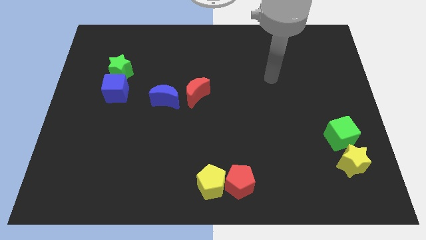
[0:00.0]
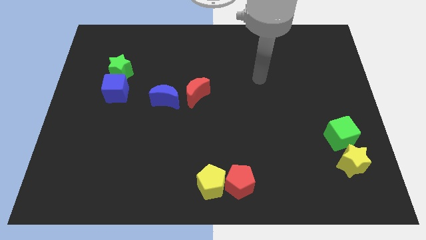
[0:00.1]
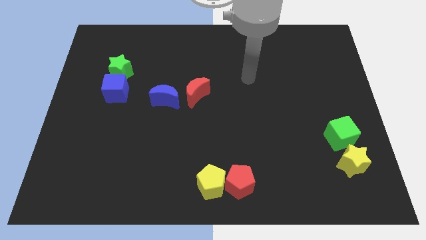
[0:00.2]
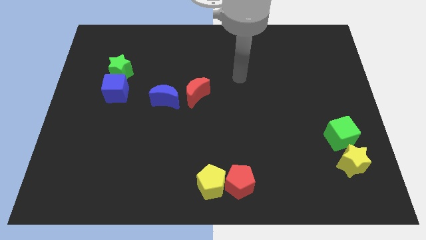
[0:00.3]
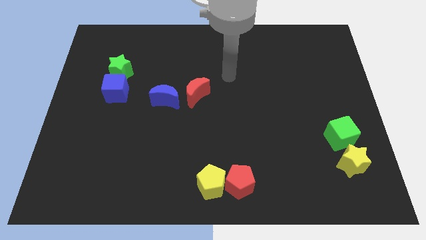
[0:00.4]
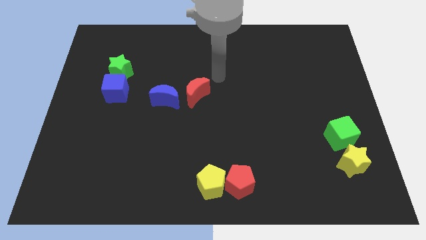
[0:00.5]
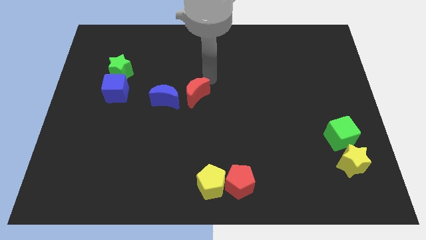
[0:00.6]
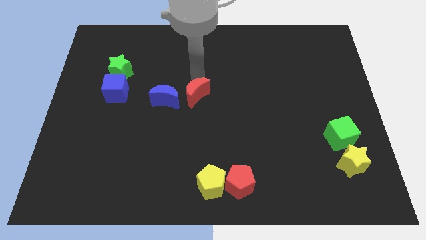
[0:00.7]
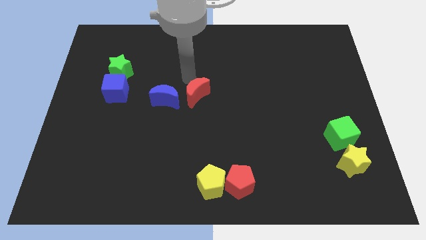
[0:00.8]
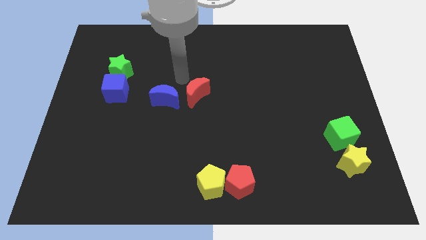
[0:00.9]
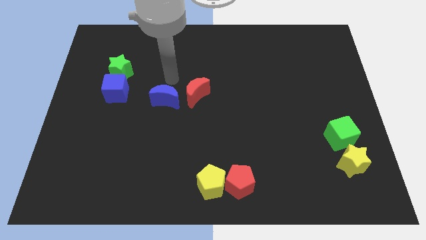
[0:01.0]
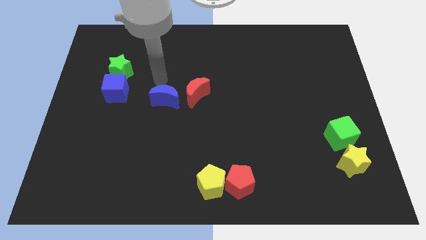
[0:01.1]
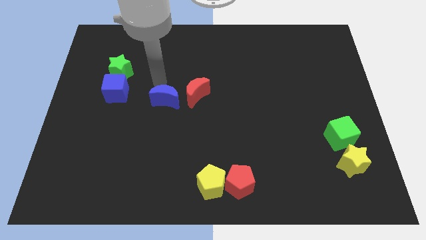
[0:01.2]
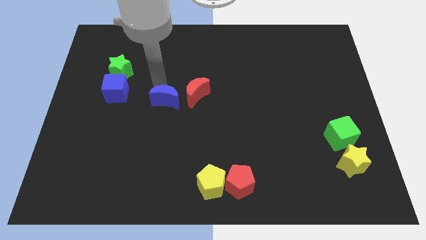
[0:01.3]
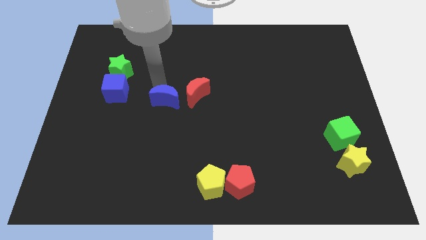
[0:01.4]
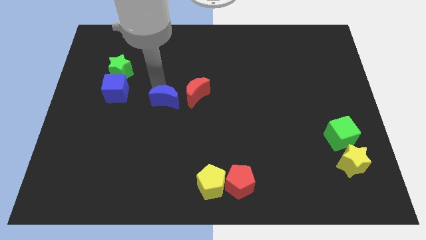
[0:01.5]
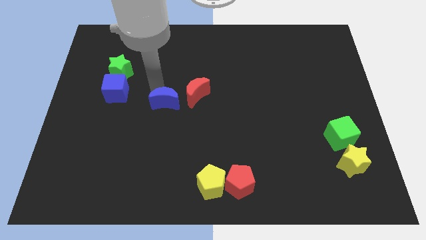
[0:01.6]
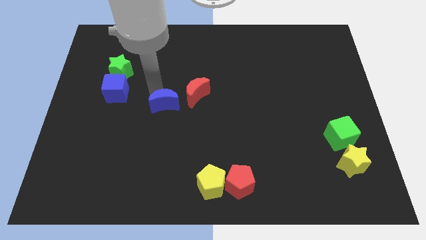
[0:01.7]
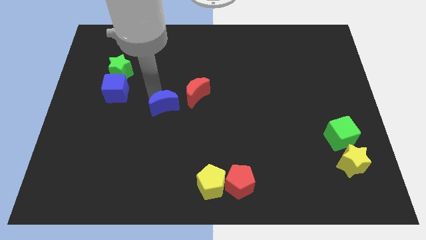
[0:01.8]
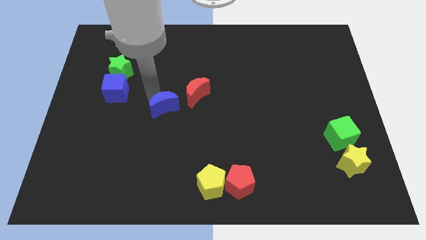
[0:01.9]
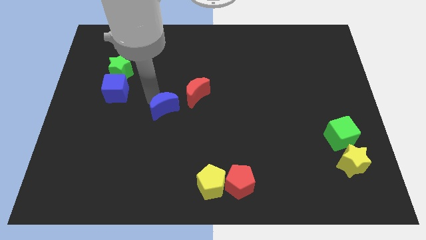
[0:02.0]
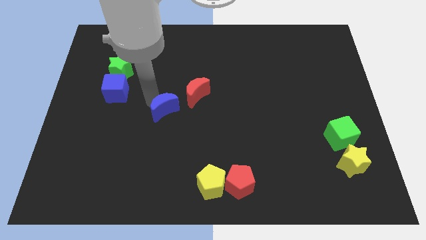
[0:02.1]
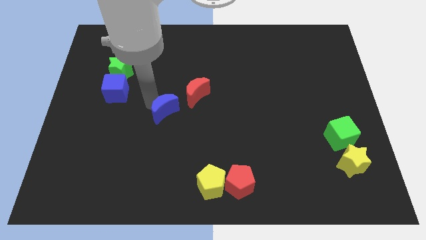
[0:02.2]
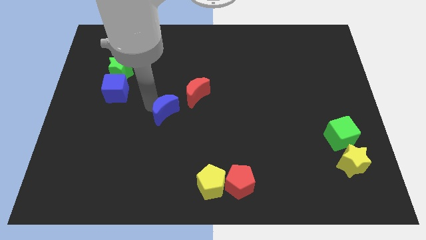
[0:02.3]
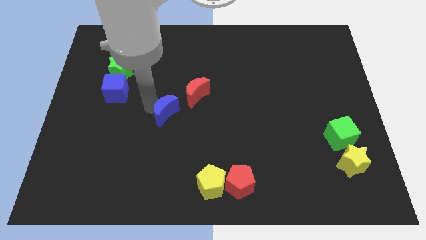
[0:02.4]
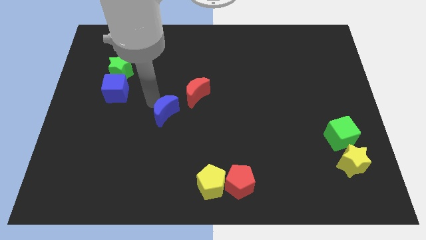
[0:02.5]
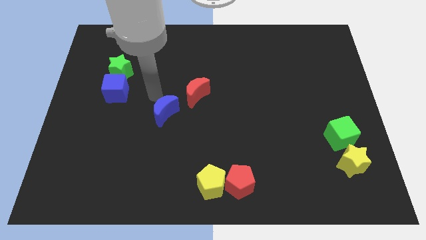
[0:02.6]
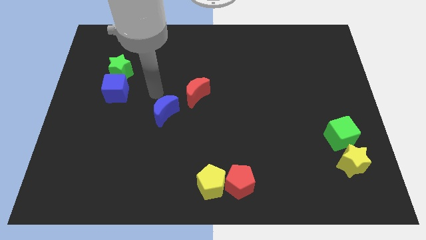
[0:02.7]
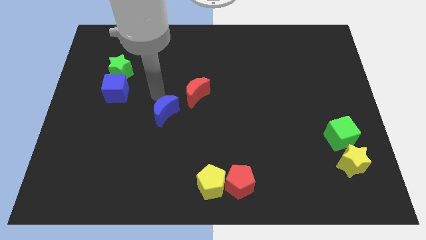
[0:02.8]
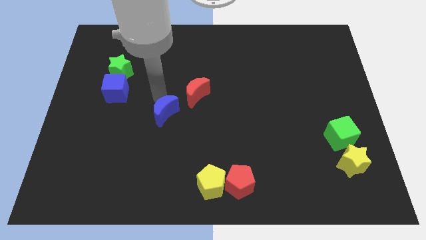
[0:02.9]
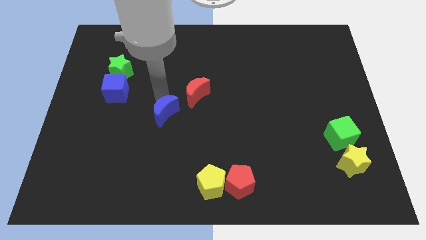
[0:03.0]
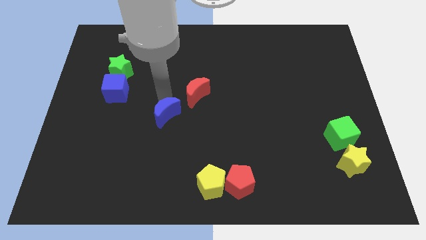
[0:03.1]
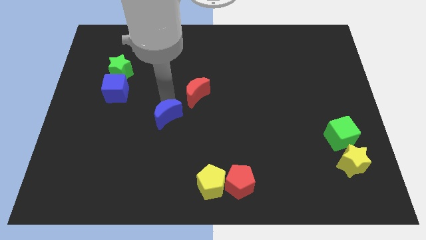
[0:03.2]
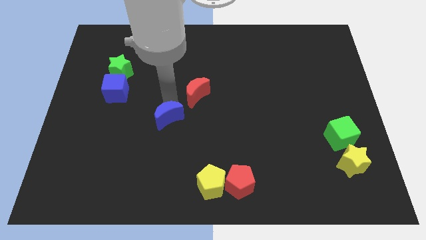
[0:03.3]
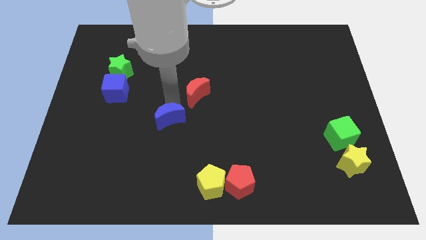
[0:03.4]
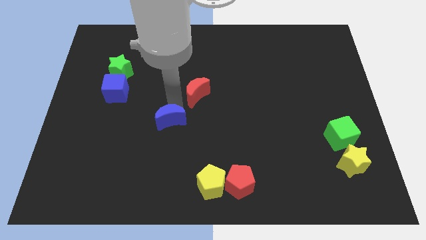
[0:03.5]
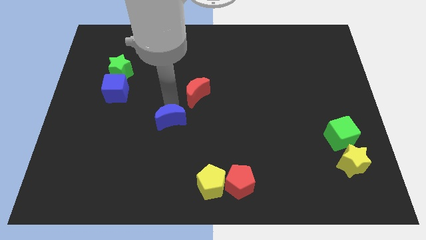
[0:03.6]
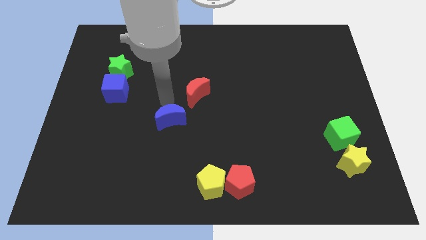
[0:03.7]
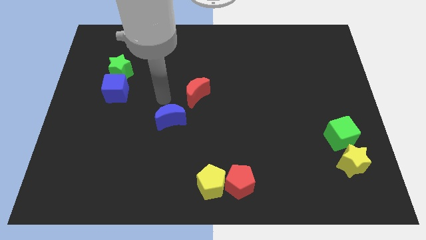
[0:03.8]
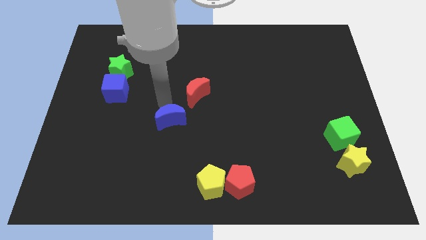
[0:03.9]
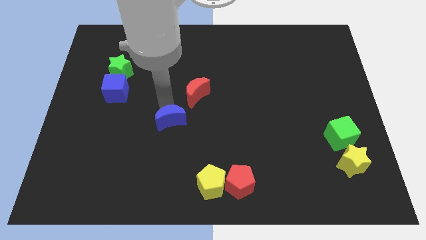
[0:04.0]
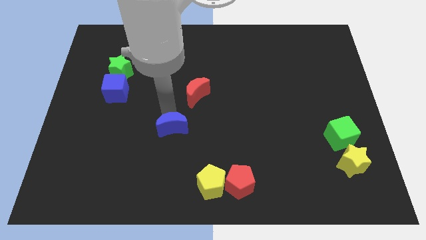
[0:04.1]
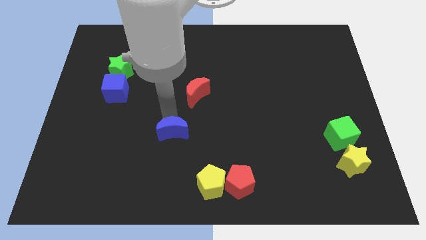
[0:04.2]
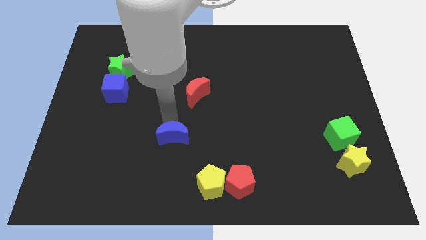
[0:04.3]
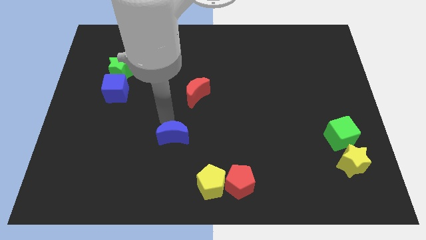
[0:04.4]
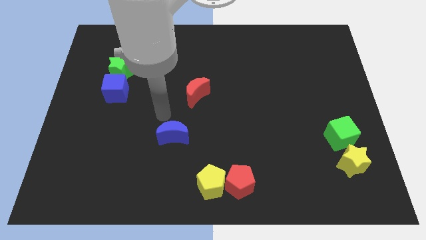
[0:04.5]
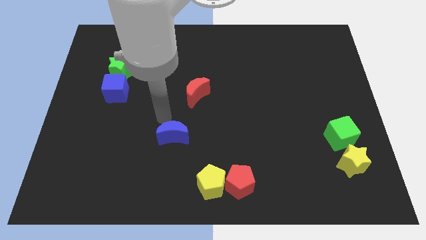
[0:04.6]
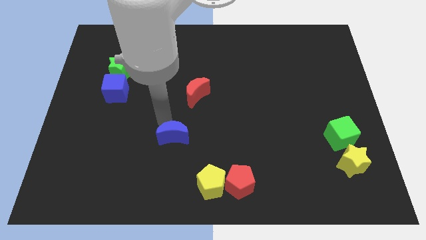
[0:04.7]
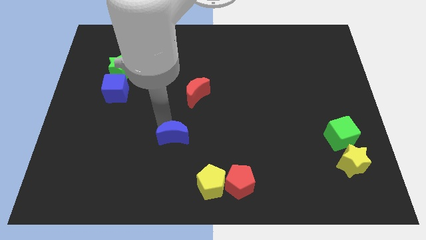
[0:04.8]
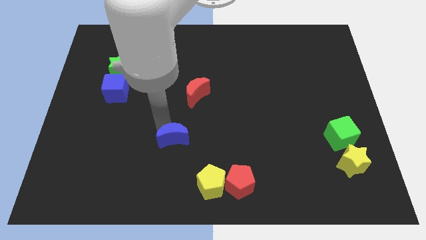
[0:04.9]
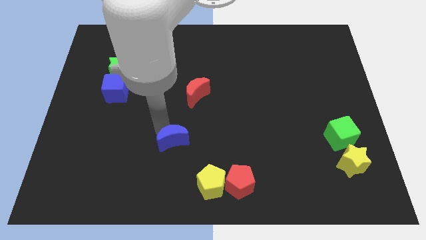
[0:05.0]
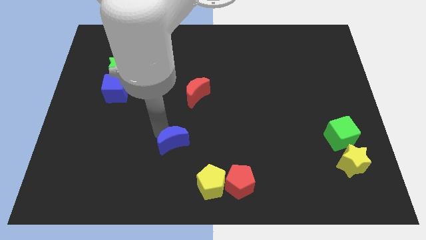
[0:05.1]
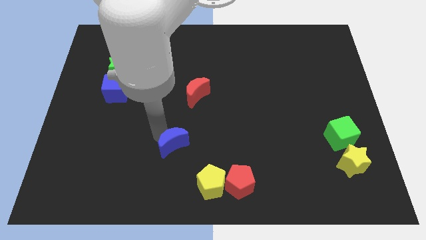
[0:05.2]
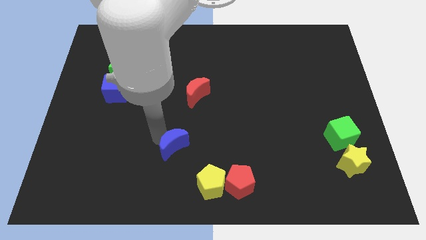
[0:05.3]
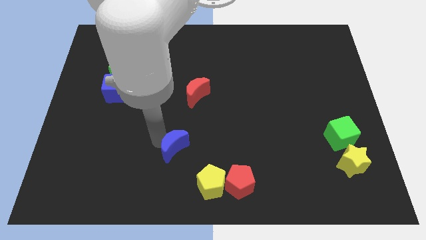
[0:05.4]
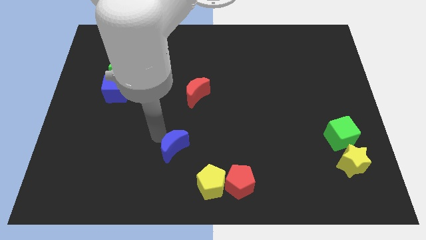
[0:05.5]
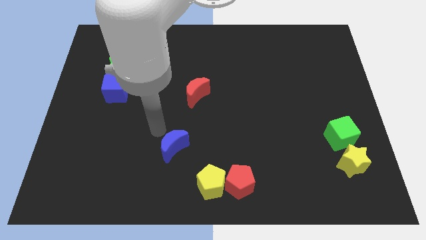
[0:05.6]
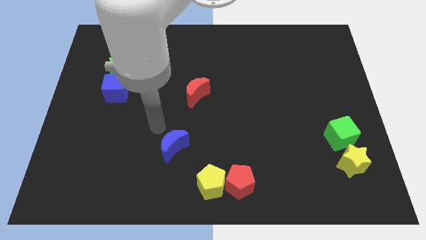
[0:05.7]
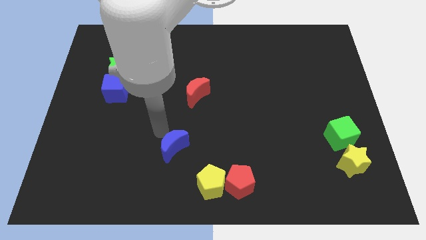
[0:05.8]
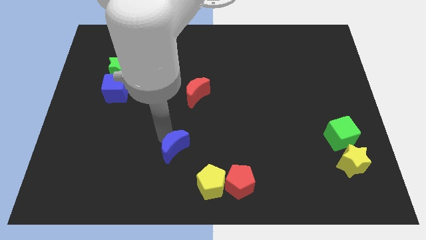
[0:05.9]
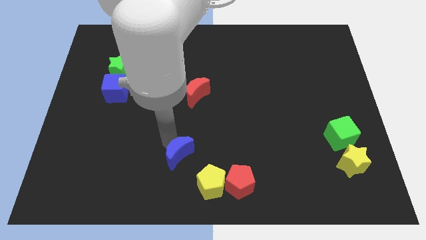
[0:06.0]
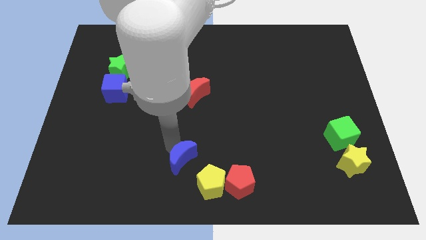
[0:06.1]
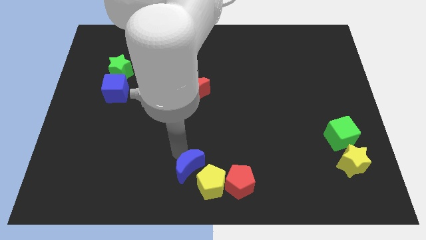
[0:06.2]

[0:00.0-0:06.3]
slide the blue moon to the bottom

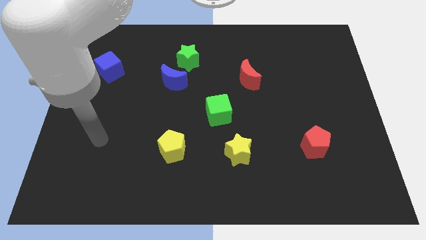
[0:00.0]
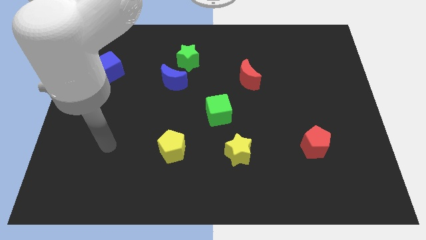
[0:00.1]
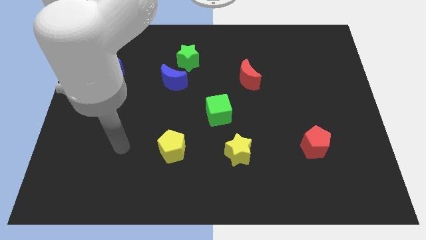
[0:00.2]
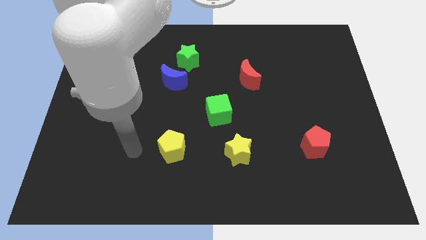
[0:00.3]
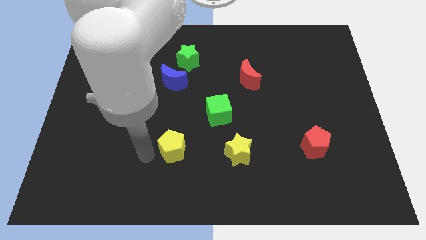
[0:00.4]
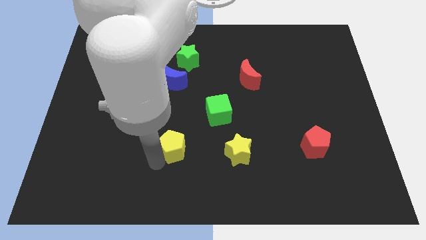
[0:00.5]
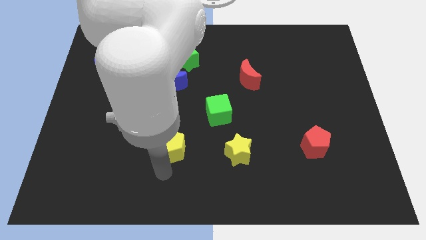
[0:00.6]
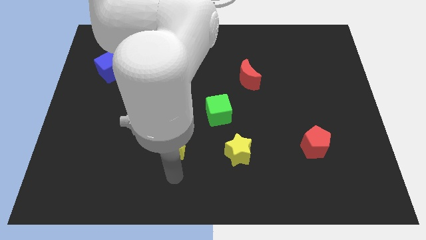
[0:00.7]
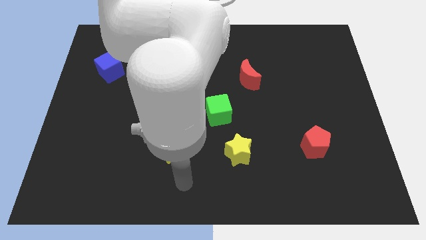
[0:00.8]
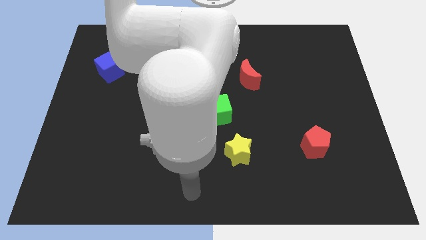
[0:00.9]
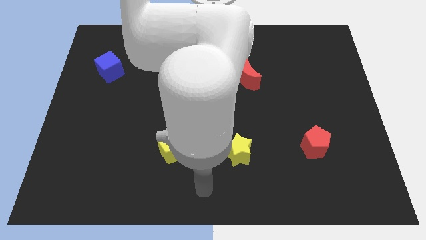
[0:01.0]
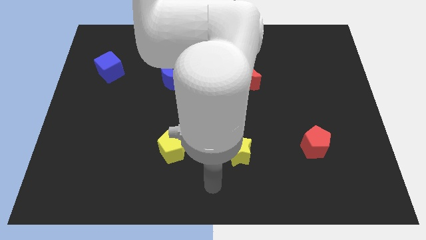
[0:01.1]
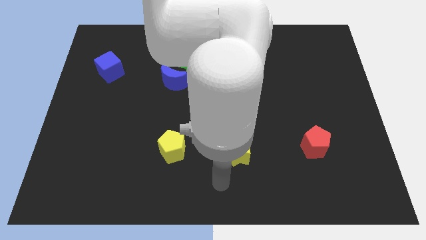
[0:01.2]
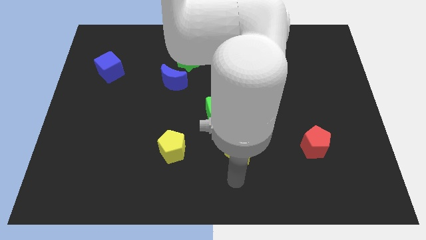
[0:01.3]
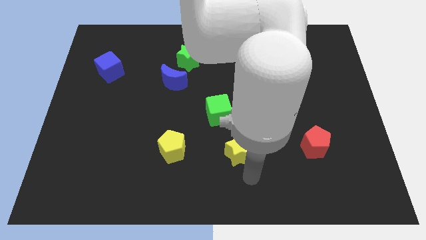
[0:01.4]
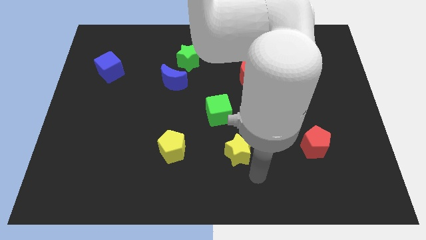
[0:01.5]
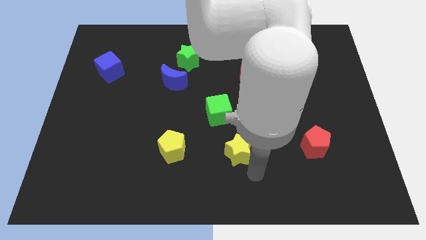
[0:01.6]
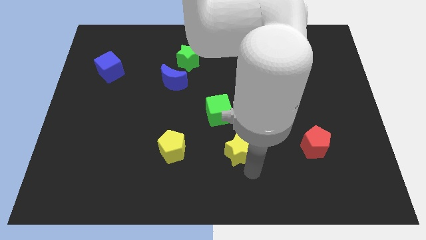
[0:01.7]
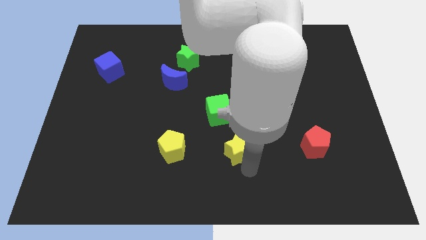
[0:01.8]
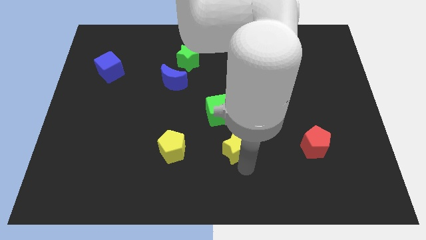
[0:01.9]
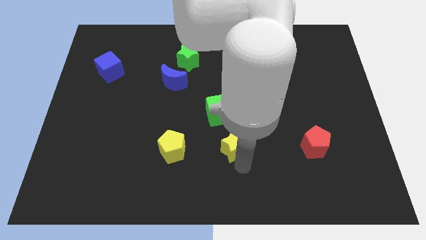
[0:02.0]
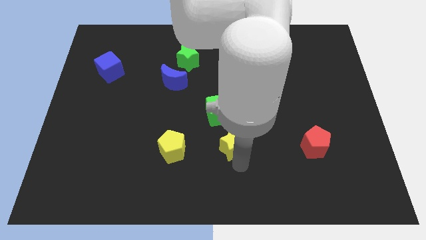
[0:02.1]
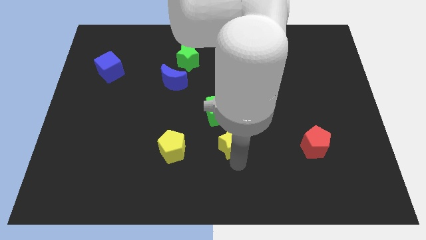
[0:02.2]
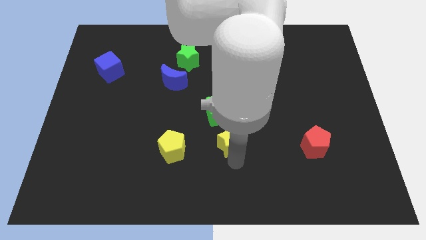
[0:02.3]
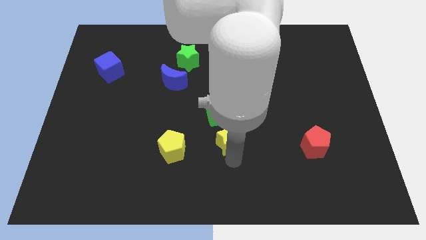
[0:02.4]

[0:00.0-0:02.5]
slide the yellow star to the middle
